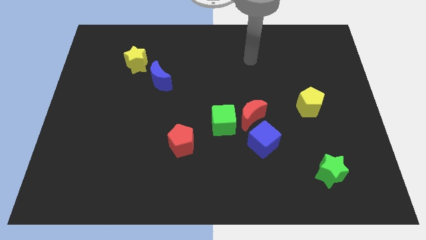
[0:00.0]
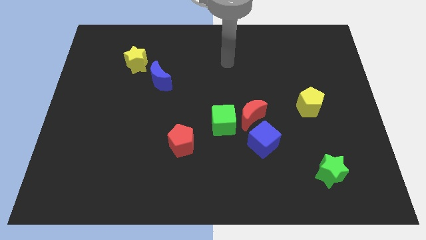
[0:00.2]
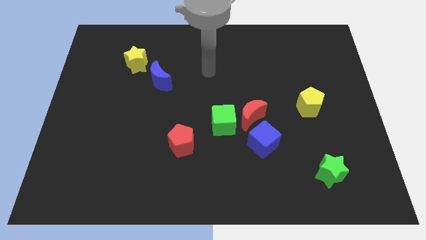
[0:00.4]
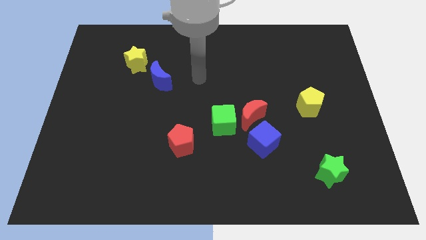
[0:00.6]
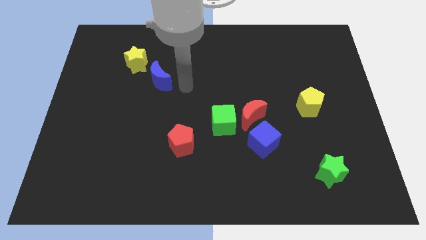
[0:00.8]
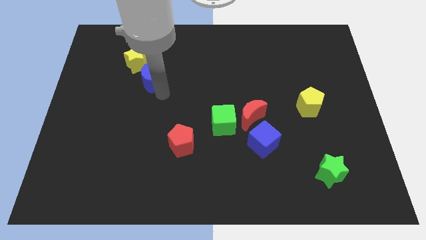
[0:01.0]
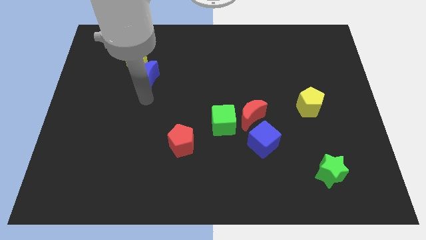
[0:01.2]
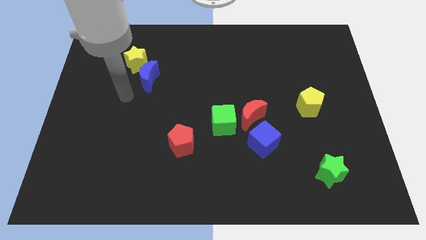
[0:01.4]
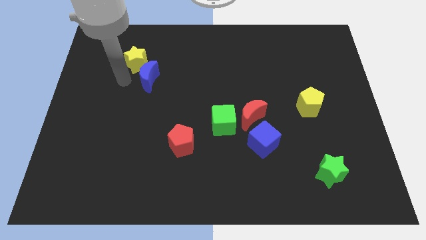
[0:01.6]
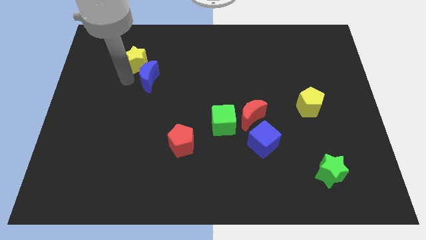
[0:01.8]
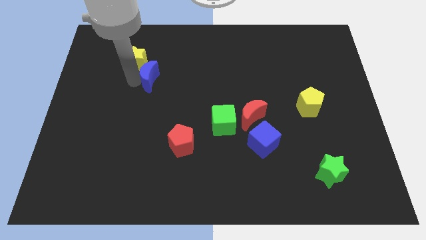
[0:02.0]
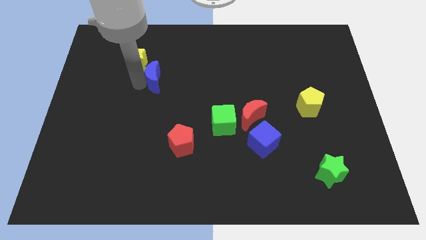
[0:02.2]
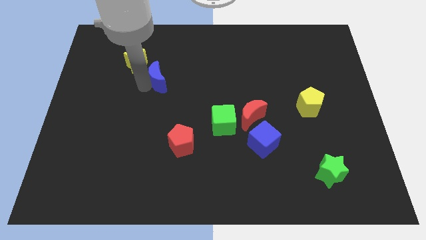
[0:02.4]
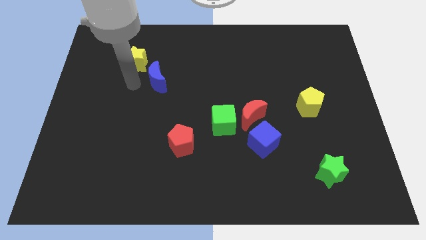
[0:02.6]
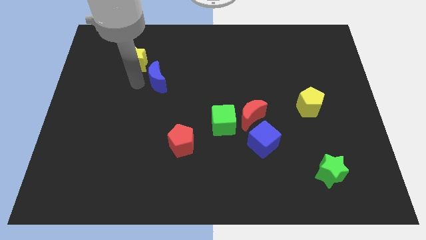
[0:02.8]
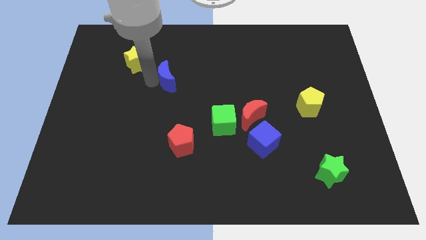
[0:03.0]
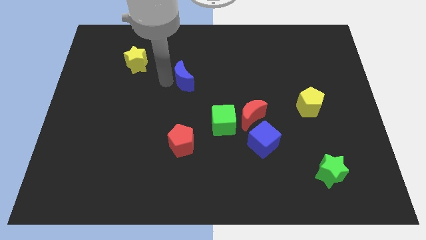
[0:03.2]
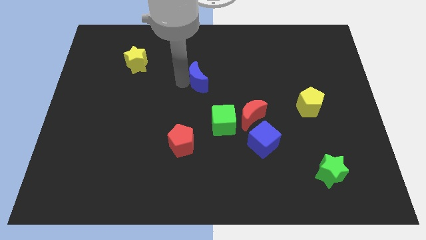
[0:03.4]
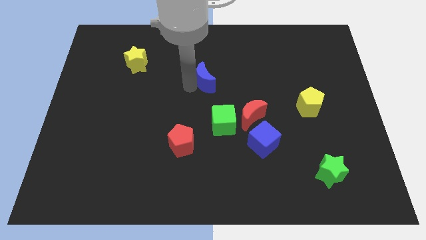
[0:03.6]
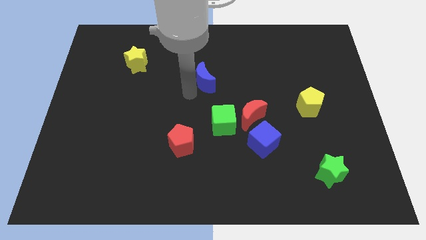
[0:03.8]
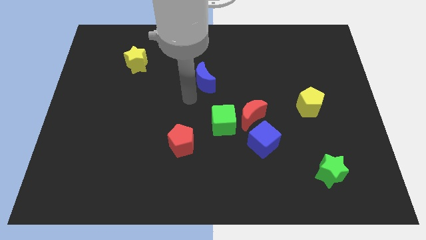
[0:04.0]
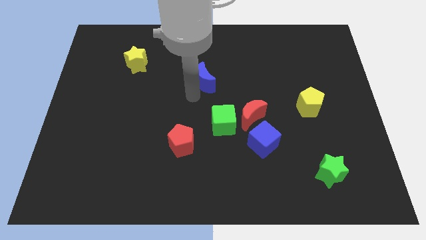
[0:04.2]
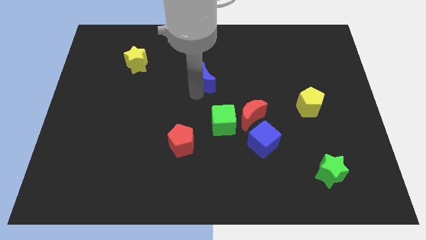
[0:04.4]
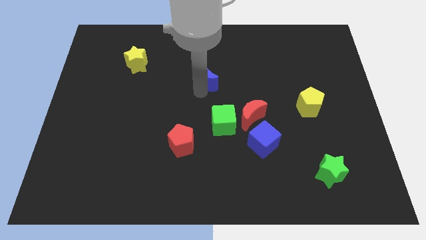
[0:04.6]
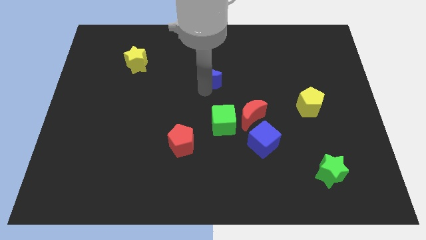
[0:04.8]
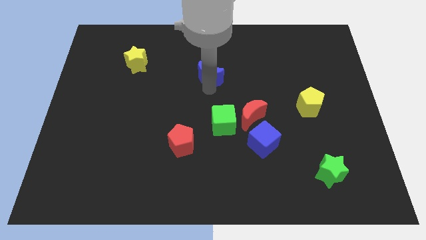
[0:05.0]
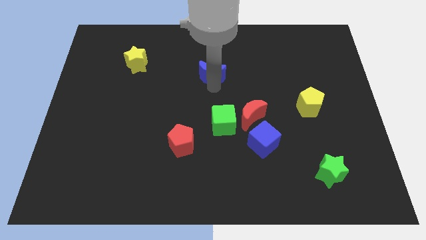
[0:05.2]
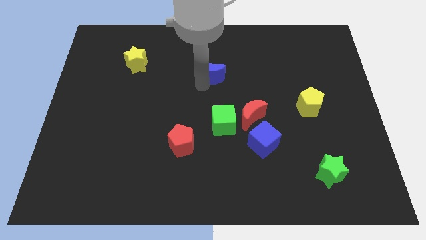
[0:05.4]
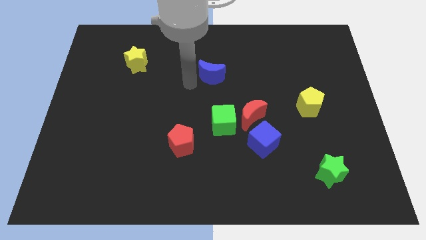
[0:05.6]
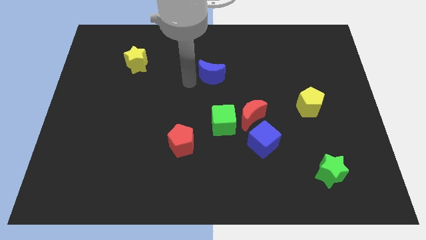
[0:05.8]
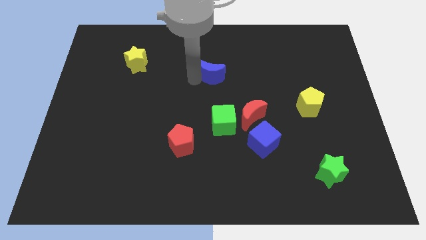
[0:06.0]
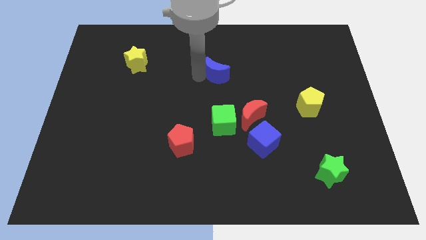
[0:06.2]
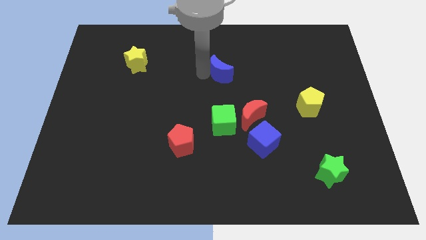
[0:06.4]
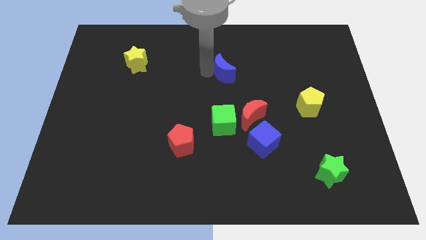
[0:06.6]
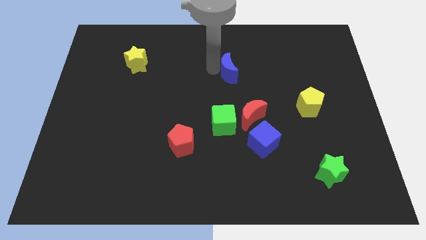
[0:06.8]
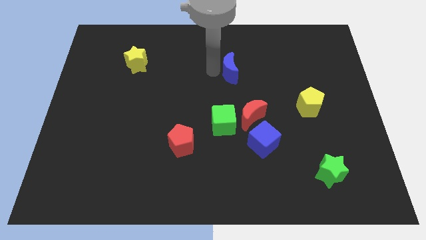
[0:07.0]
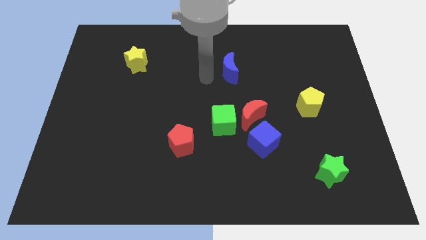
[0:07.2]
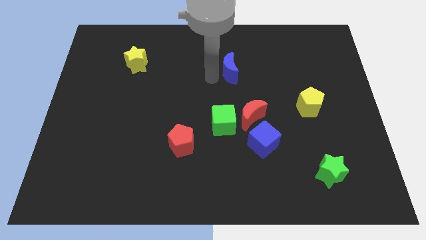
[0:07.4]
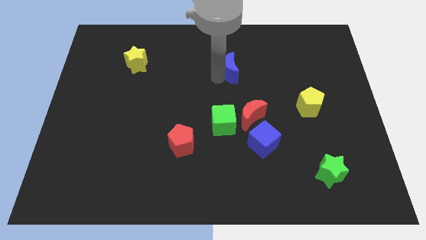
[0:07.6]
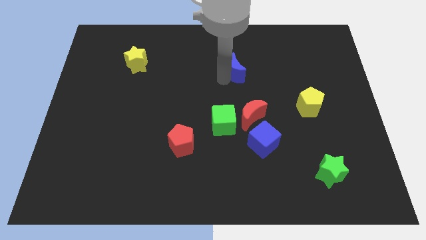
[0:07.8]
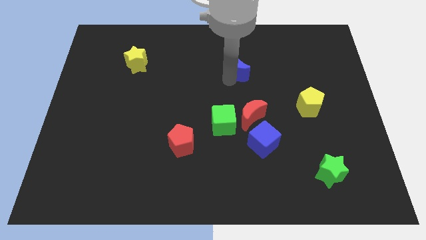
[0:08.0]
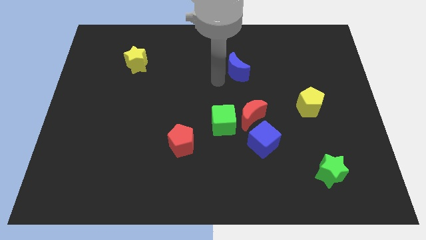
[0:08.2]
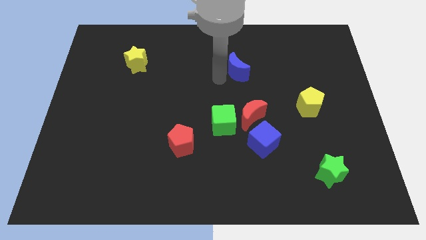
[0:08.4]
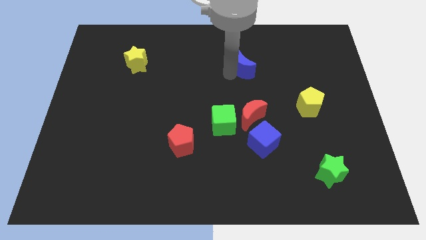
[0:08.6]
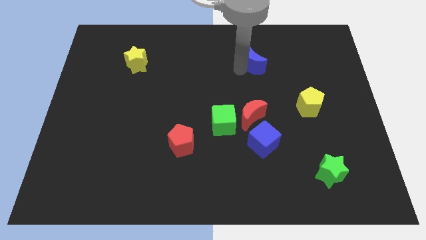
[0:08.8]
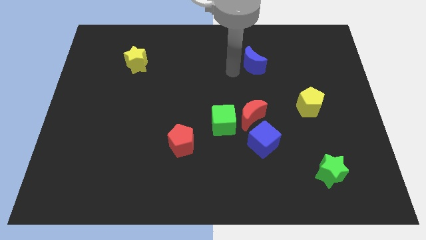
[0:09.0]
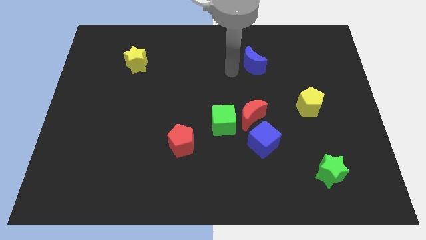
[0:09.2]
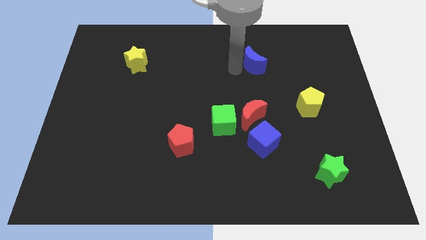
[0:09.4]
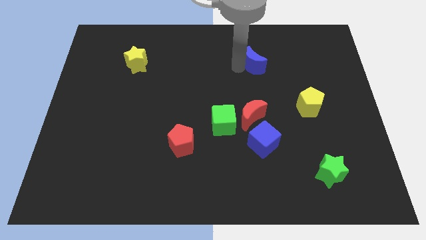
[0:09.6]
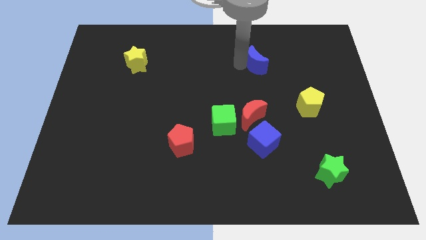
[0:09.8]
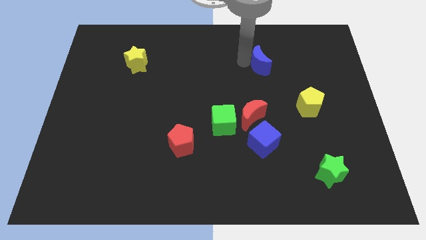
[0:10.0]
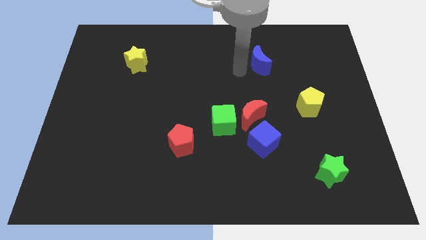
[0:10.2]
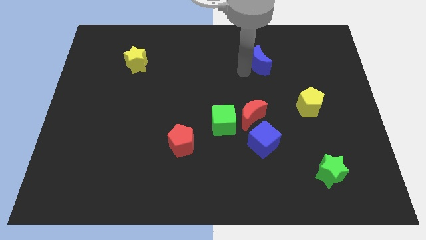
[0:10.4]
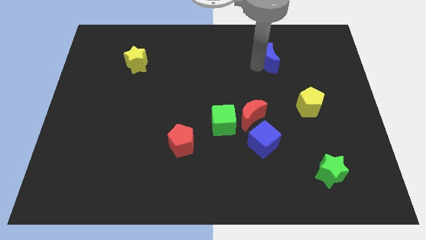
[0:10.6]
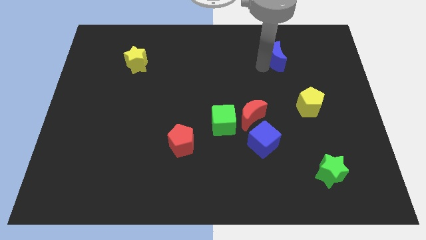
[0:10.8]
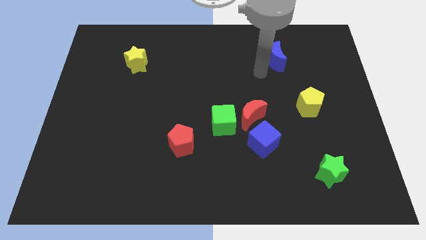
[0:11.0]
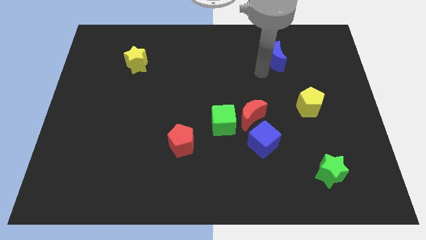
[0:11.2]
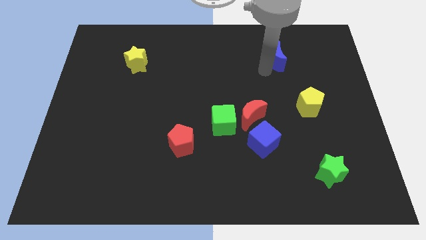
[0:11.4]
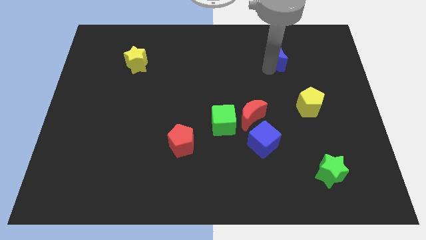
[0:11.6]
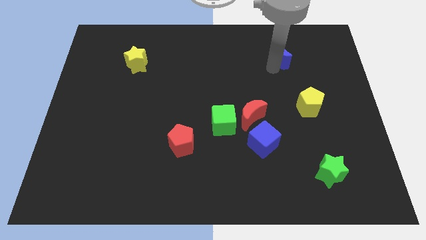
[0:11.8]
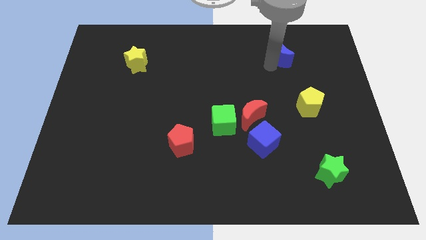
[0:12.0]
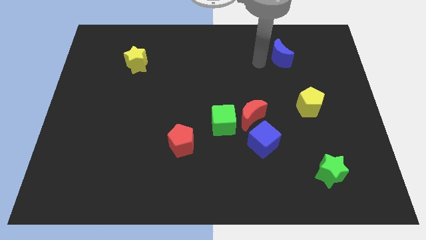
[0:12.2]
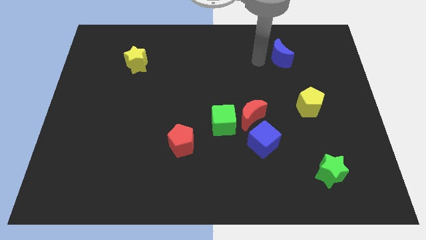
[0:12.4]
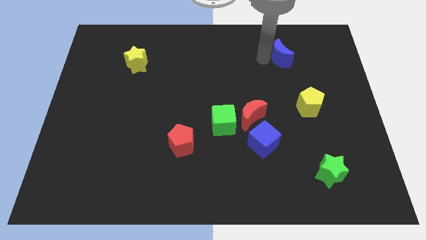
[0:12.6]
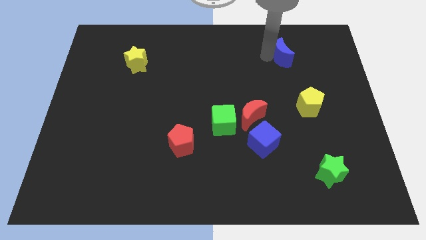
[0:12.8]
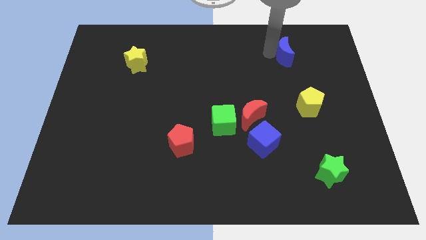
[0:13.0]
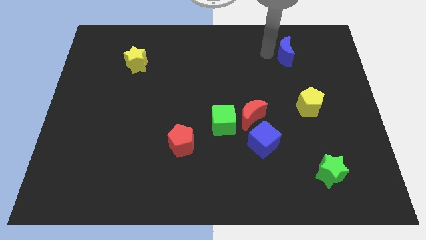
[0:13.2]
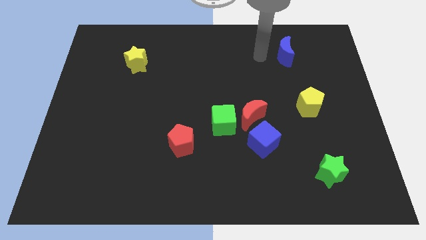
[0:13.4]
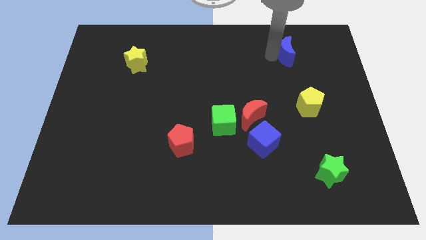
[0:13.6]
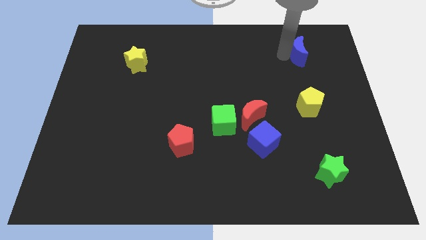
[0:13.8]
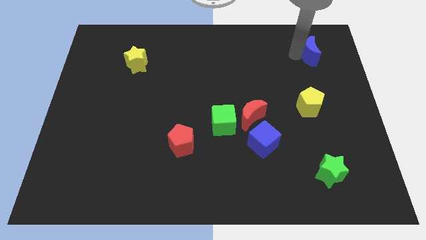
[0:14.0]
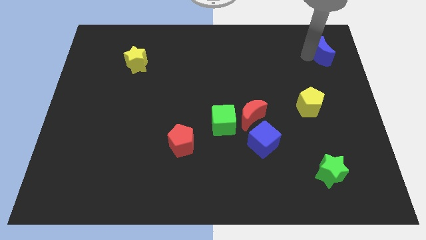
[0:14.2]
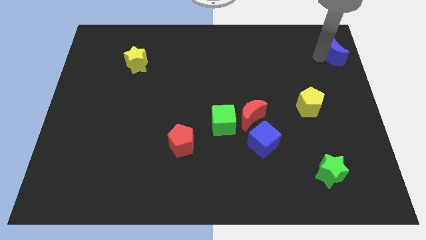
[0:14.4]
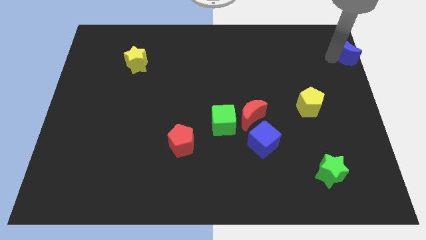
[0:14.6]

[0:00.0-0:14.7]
push the blue moon to the top right corner
